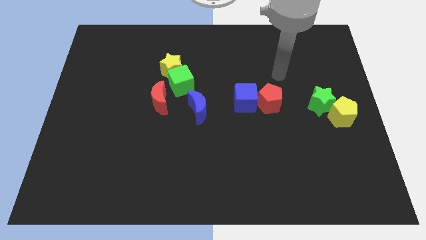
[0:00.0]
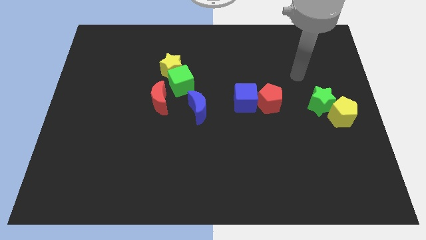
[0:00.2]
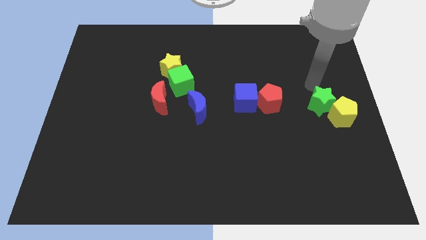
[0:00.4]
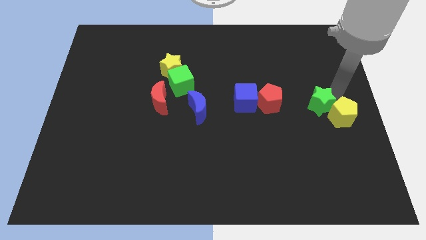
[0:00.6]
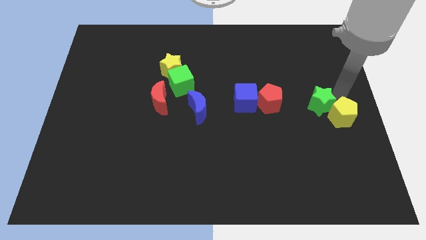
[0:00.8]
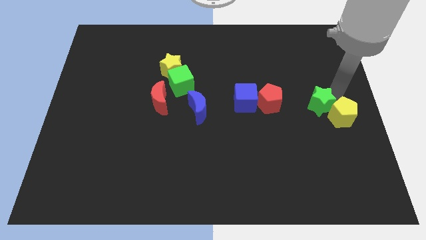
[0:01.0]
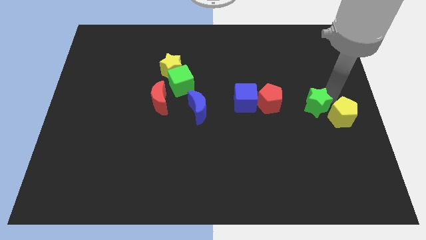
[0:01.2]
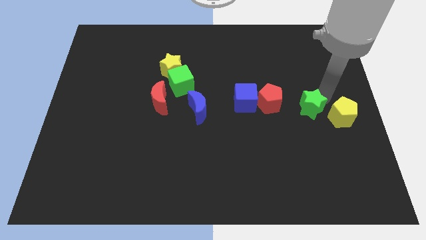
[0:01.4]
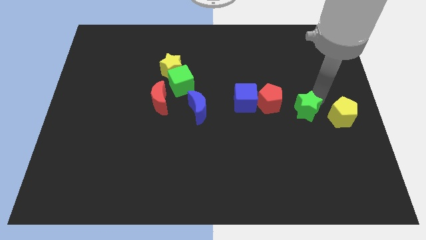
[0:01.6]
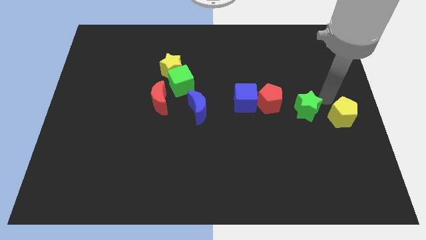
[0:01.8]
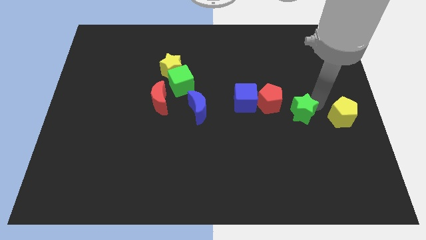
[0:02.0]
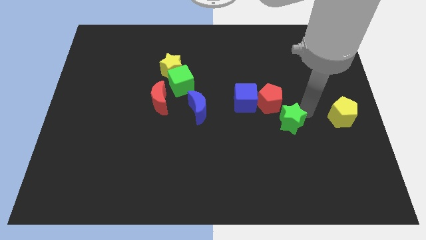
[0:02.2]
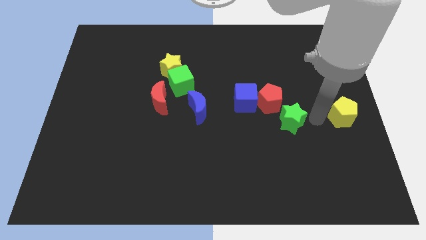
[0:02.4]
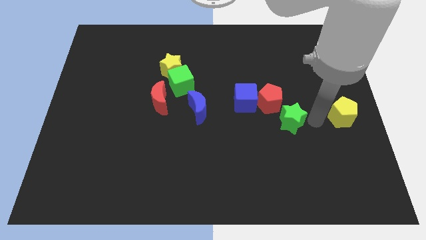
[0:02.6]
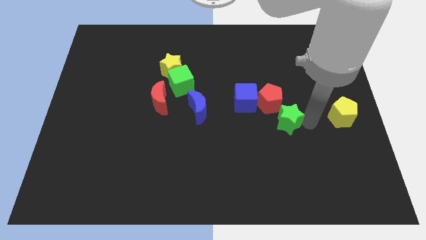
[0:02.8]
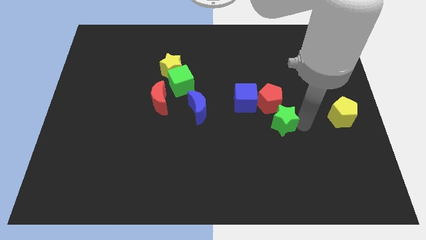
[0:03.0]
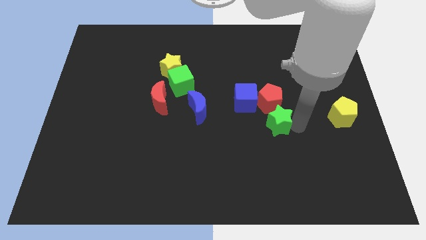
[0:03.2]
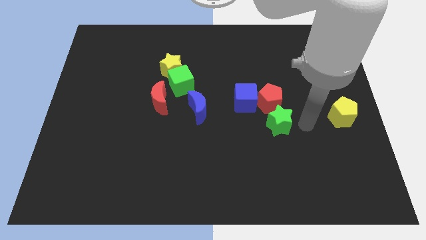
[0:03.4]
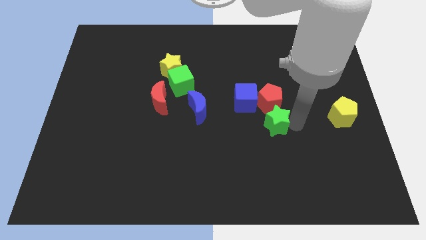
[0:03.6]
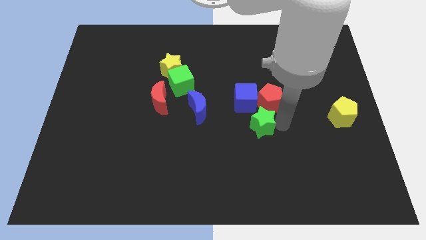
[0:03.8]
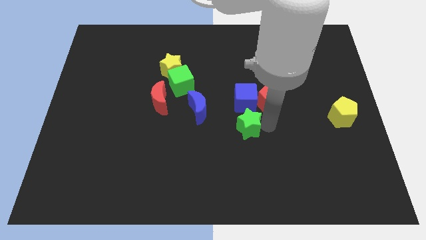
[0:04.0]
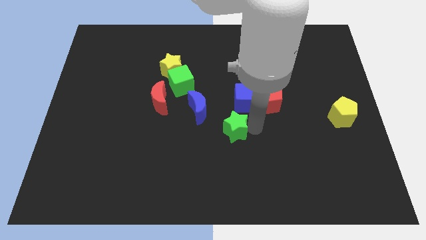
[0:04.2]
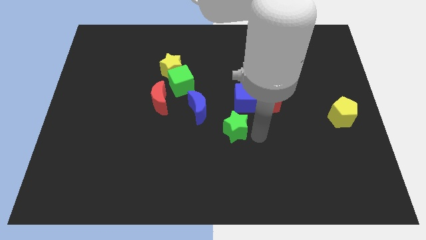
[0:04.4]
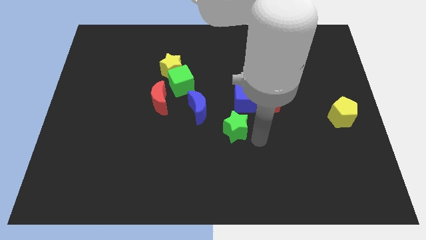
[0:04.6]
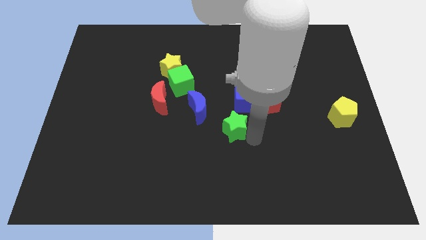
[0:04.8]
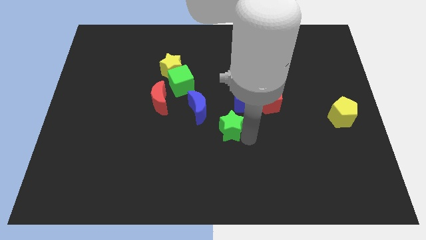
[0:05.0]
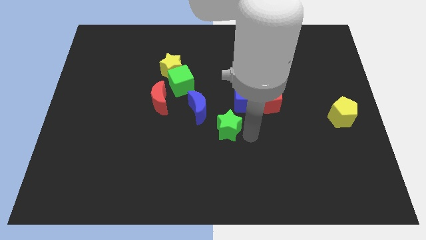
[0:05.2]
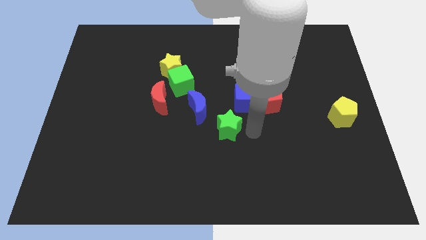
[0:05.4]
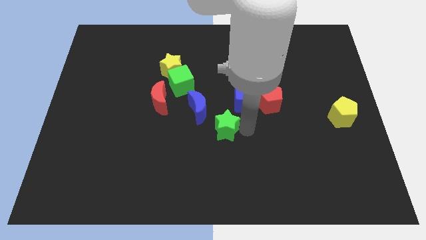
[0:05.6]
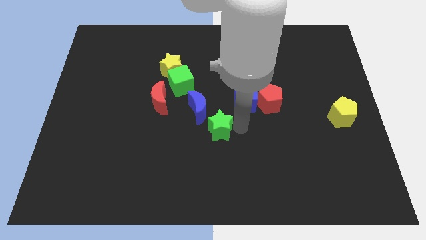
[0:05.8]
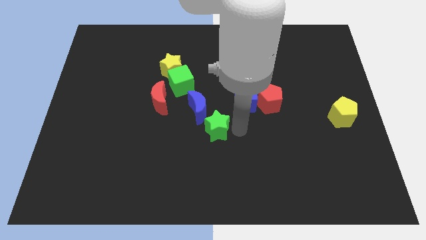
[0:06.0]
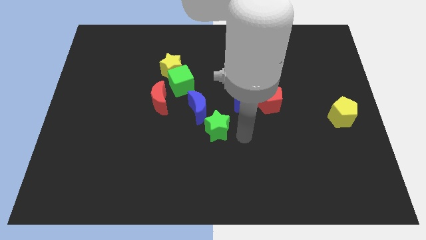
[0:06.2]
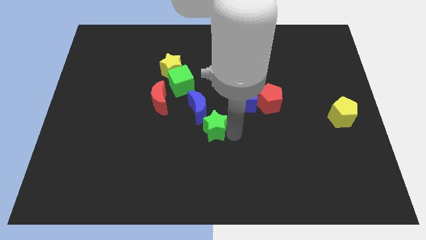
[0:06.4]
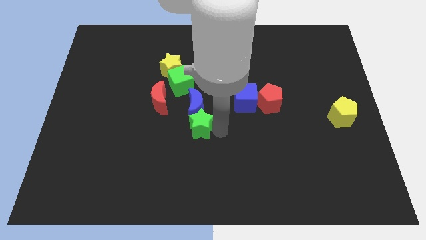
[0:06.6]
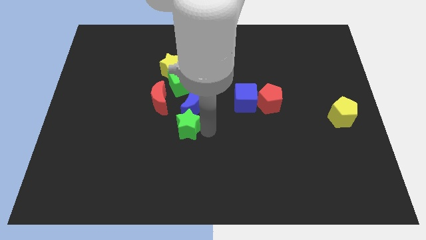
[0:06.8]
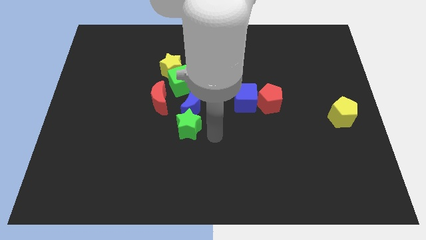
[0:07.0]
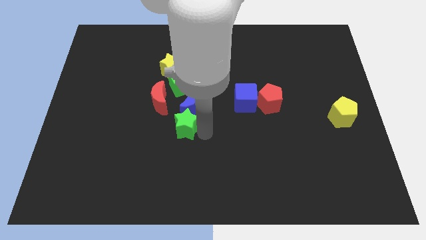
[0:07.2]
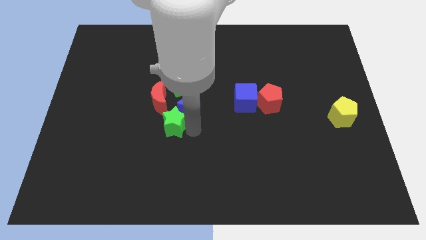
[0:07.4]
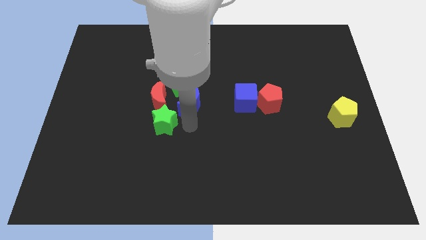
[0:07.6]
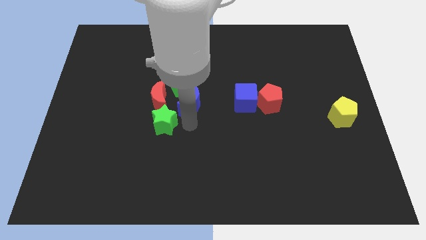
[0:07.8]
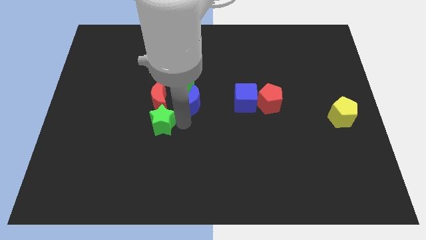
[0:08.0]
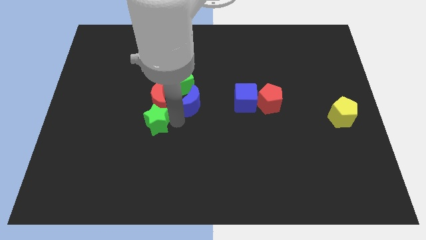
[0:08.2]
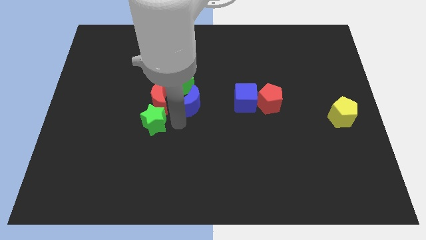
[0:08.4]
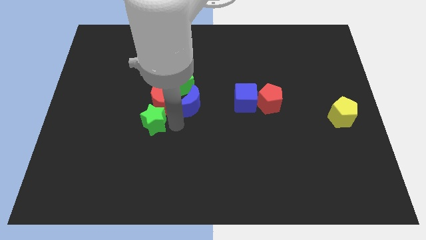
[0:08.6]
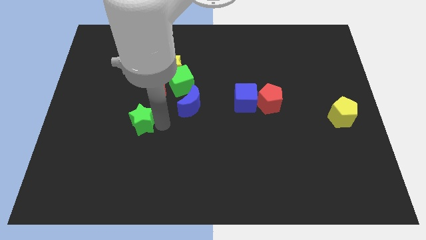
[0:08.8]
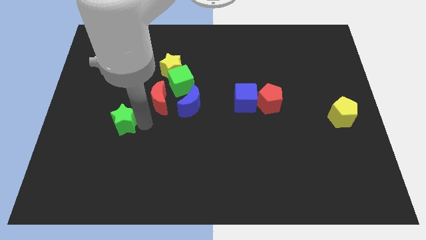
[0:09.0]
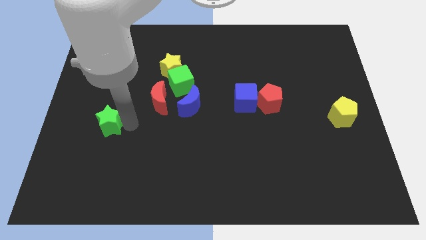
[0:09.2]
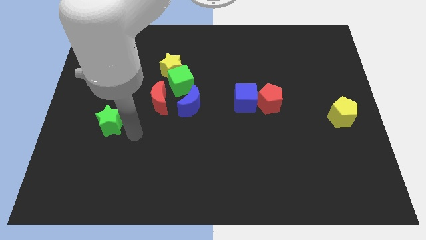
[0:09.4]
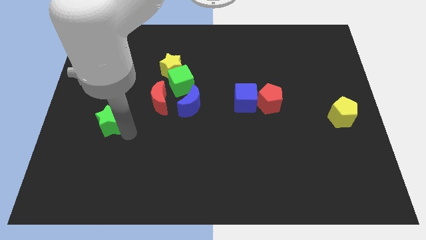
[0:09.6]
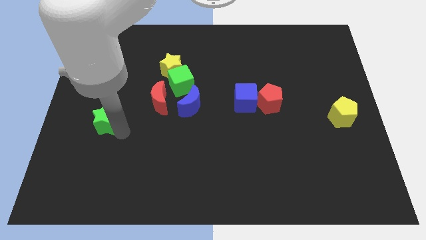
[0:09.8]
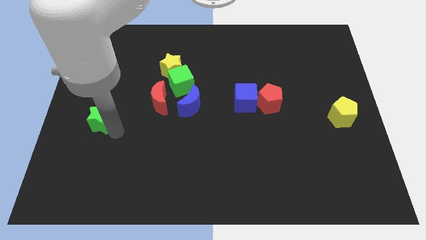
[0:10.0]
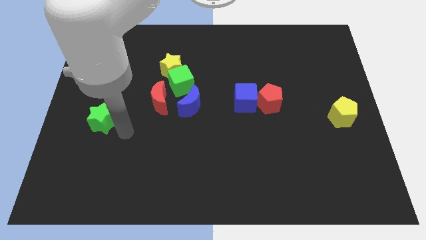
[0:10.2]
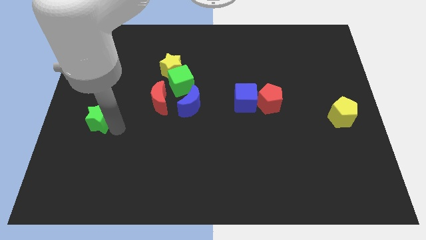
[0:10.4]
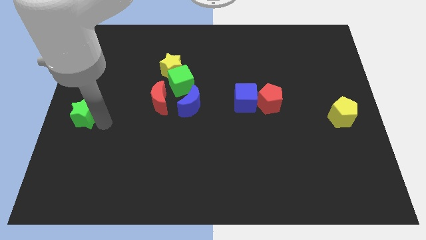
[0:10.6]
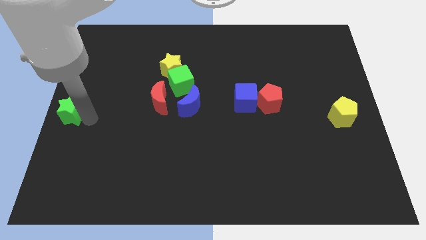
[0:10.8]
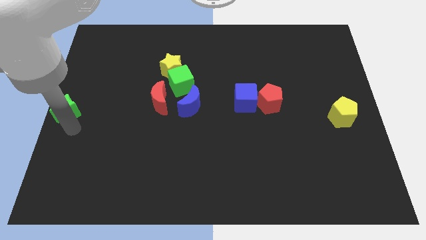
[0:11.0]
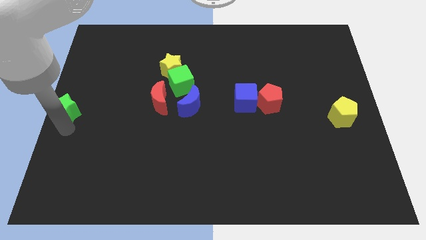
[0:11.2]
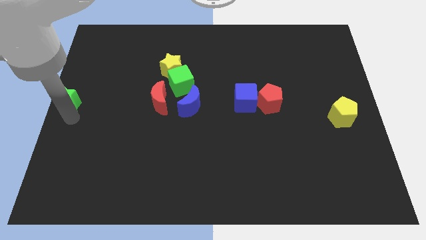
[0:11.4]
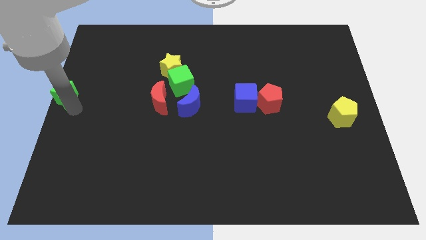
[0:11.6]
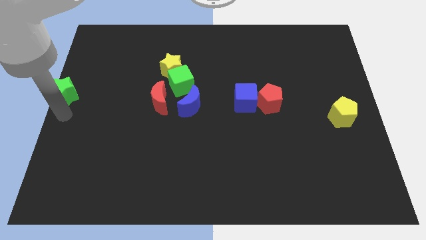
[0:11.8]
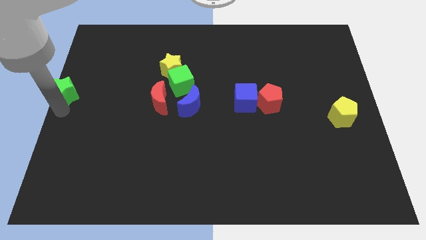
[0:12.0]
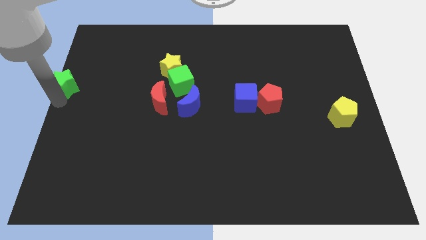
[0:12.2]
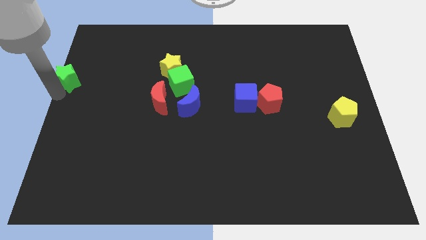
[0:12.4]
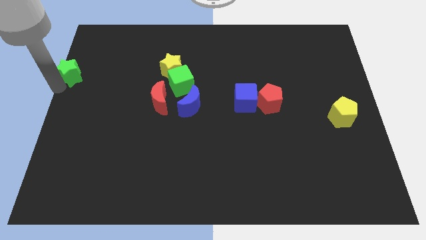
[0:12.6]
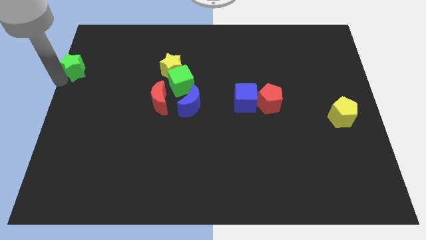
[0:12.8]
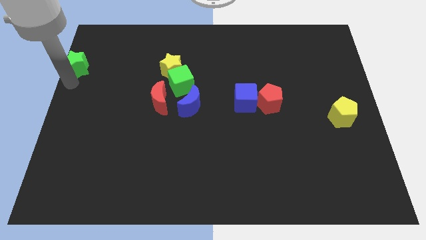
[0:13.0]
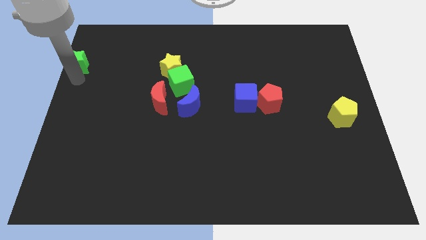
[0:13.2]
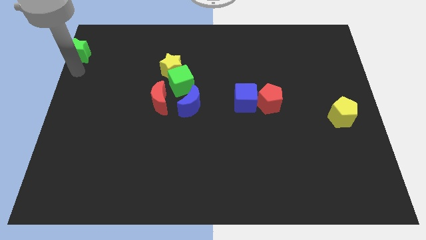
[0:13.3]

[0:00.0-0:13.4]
move the green star to the top left
